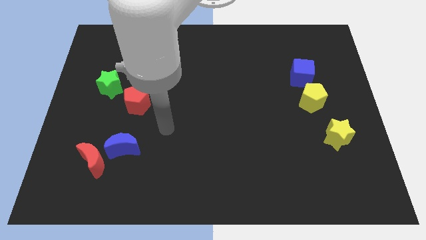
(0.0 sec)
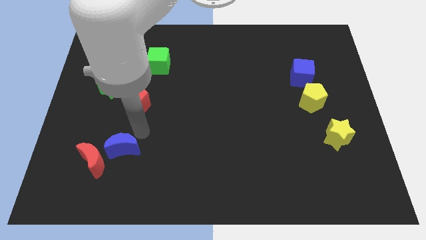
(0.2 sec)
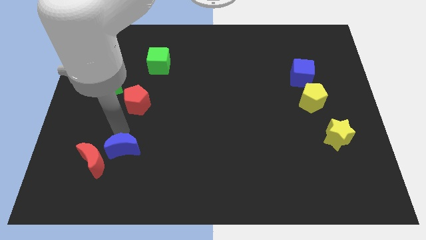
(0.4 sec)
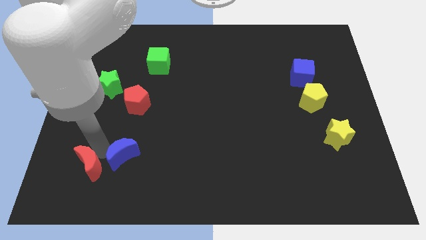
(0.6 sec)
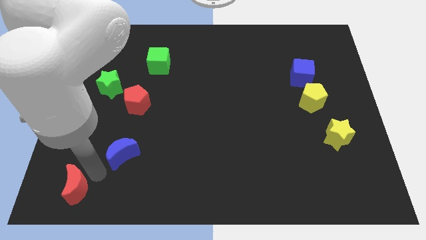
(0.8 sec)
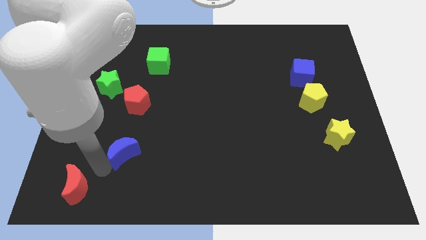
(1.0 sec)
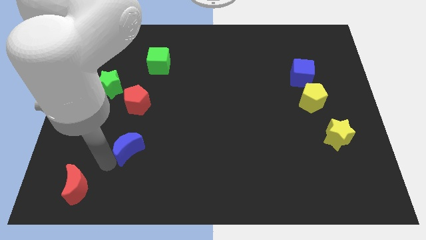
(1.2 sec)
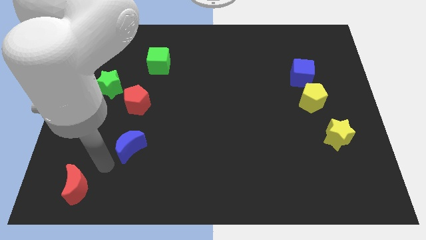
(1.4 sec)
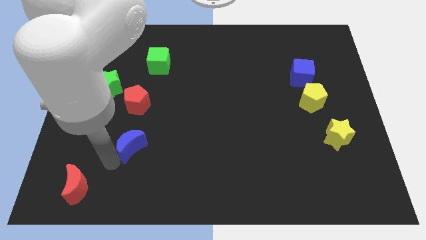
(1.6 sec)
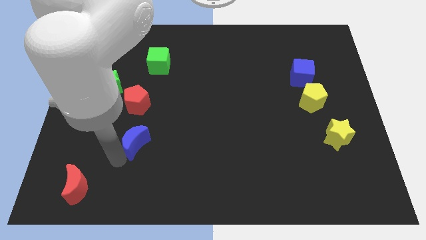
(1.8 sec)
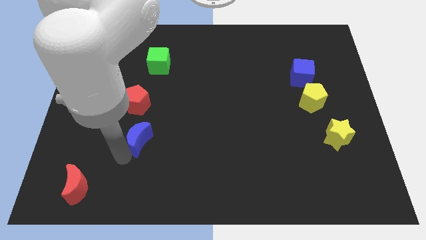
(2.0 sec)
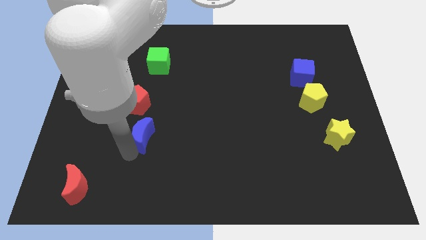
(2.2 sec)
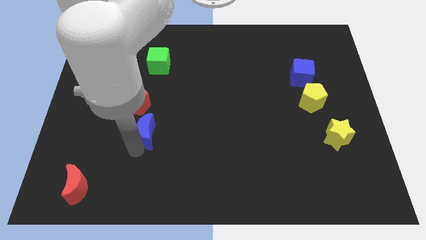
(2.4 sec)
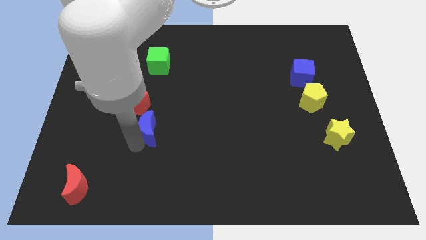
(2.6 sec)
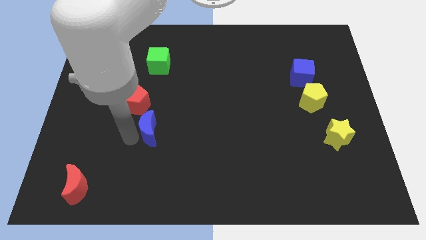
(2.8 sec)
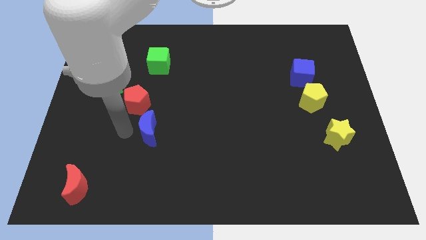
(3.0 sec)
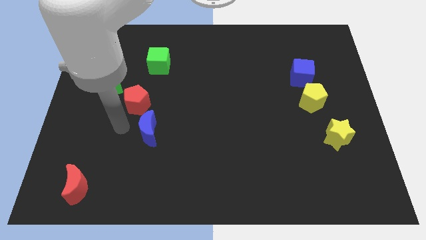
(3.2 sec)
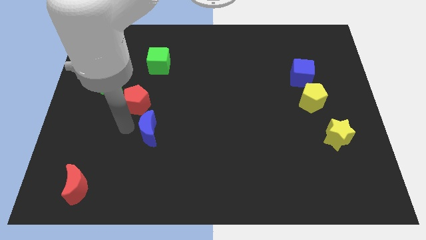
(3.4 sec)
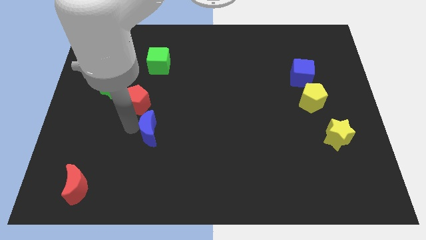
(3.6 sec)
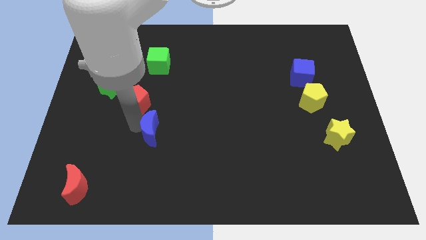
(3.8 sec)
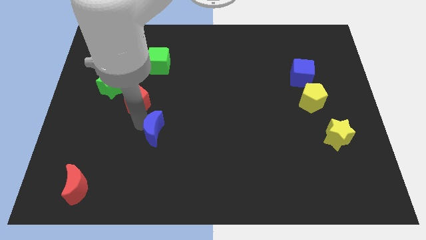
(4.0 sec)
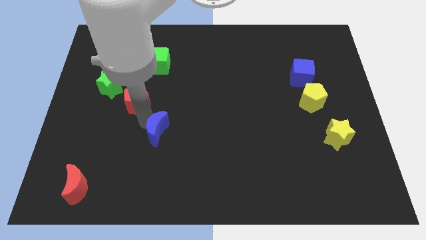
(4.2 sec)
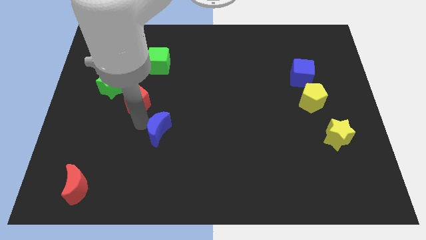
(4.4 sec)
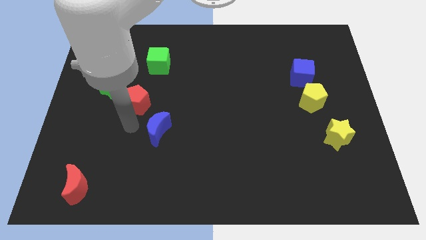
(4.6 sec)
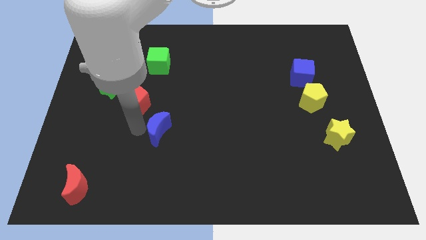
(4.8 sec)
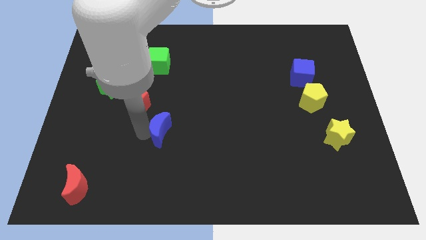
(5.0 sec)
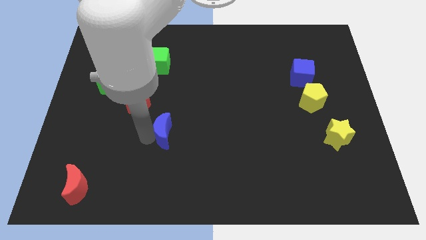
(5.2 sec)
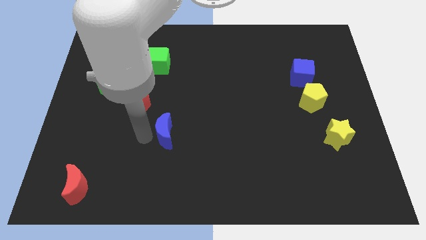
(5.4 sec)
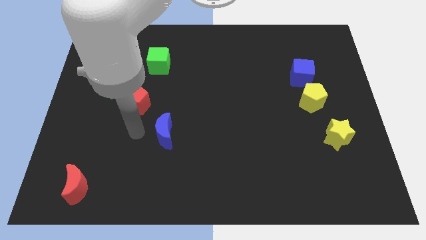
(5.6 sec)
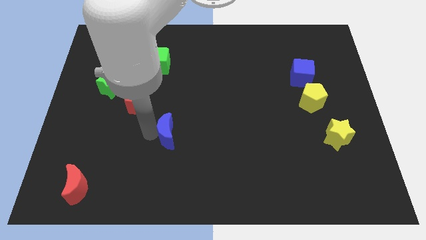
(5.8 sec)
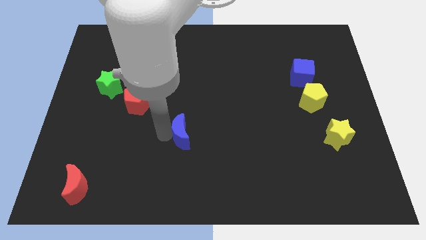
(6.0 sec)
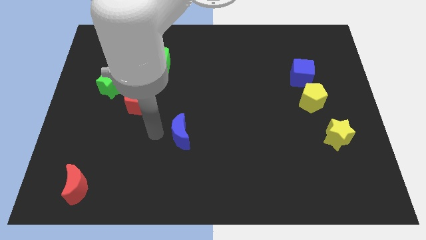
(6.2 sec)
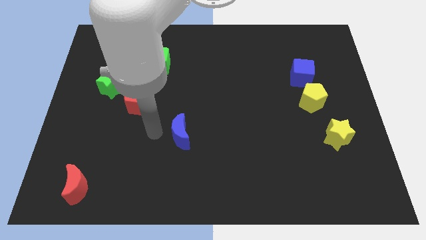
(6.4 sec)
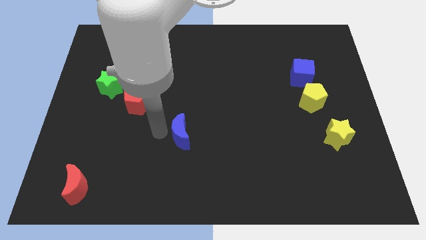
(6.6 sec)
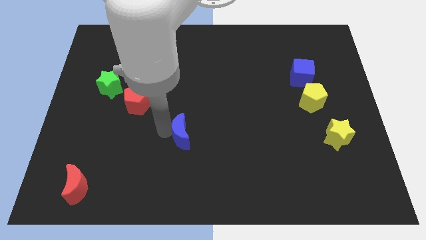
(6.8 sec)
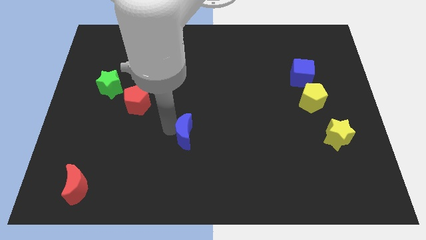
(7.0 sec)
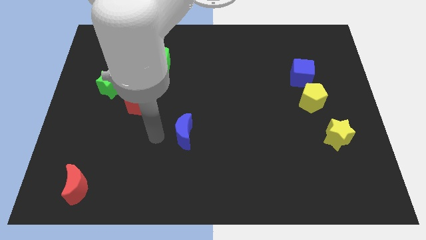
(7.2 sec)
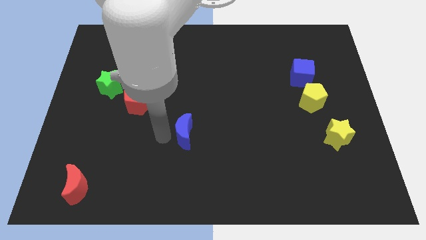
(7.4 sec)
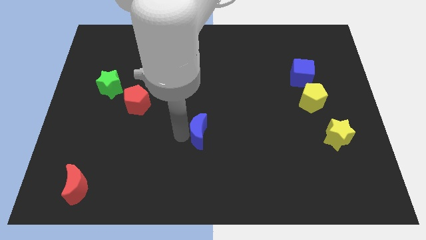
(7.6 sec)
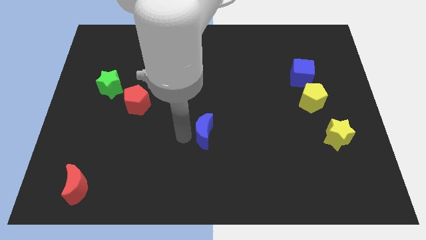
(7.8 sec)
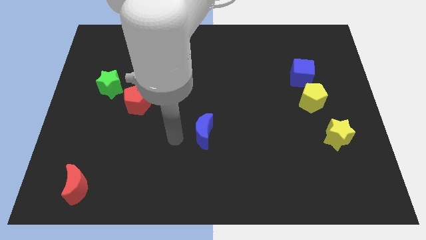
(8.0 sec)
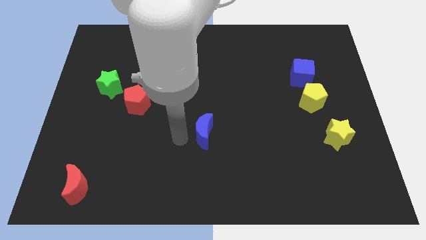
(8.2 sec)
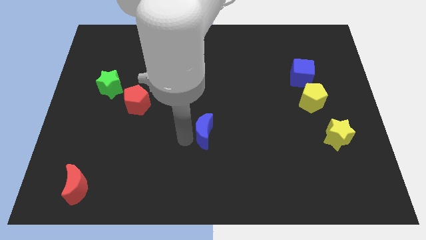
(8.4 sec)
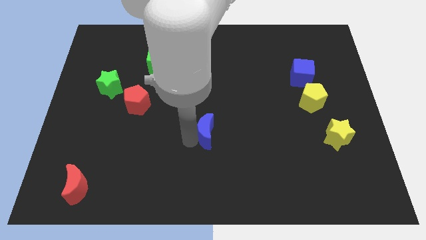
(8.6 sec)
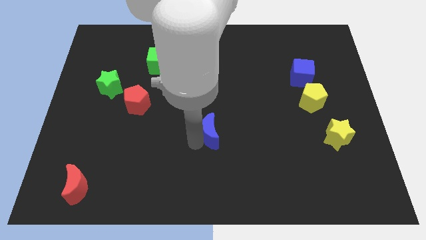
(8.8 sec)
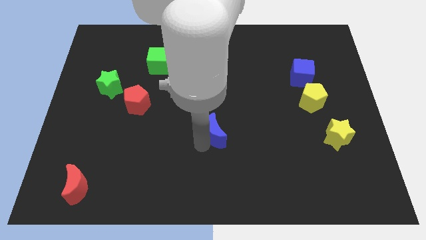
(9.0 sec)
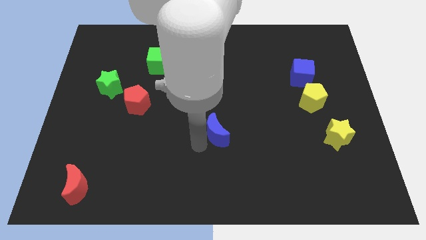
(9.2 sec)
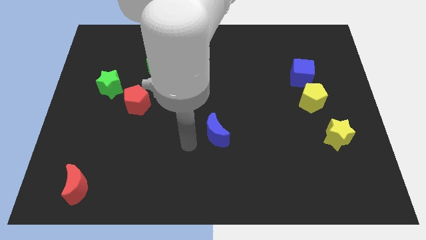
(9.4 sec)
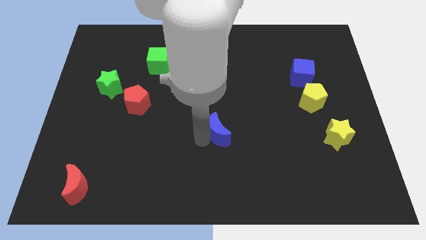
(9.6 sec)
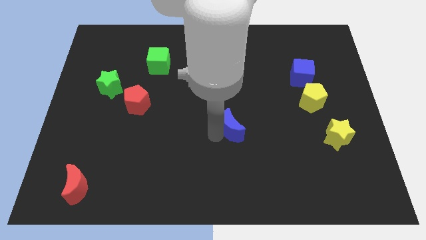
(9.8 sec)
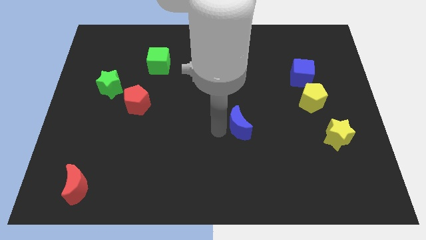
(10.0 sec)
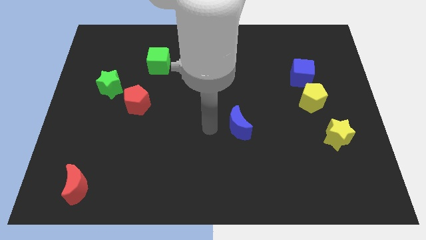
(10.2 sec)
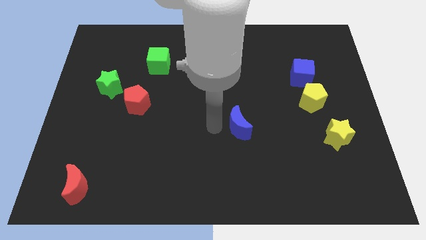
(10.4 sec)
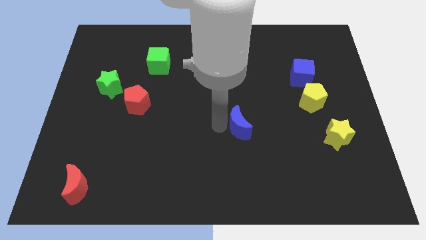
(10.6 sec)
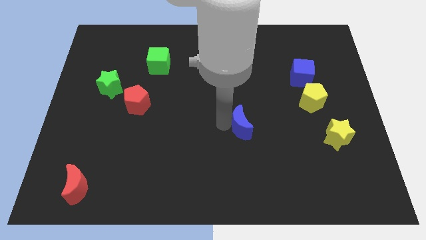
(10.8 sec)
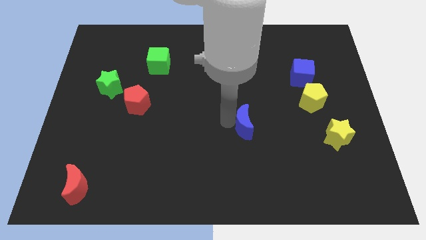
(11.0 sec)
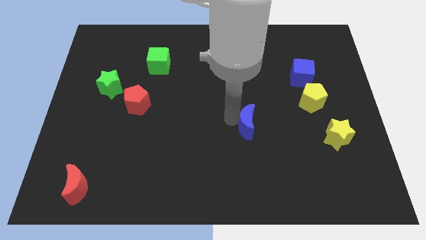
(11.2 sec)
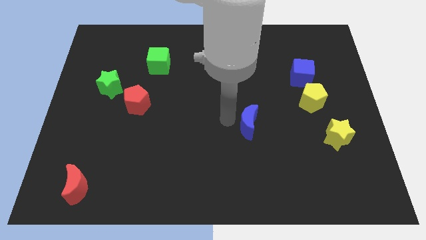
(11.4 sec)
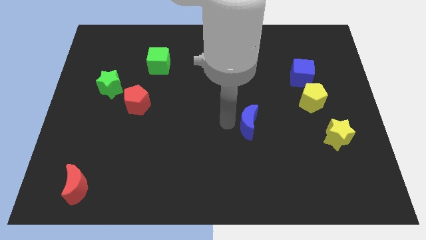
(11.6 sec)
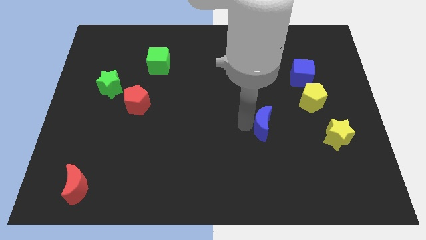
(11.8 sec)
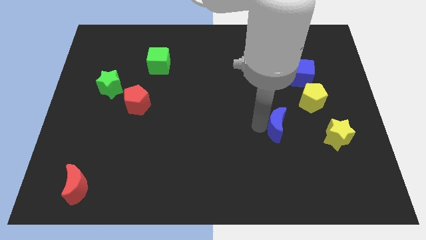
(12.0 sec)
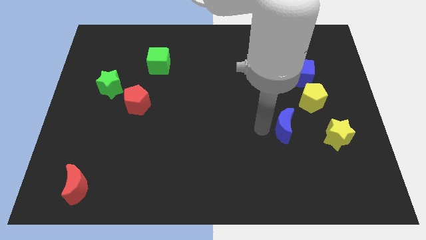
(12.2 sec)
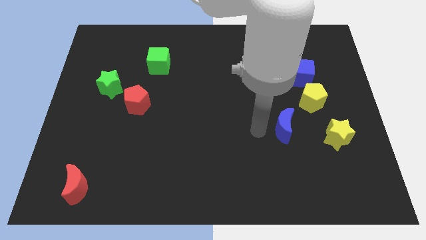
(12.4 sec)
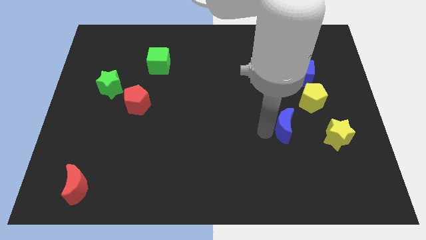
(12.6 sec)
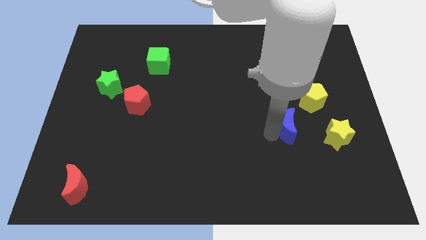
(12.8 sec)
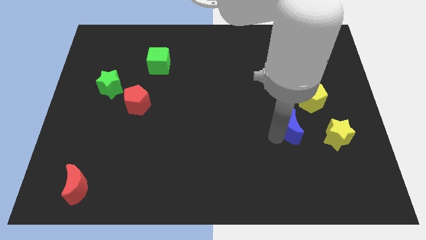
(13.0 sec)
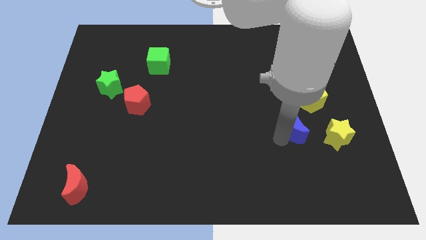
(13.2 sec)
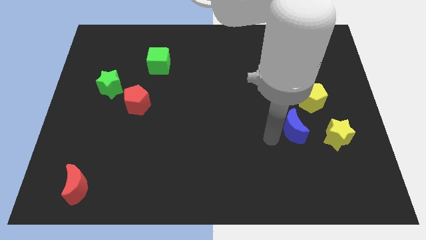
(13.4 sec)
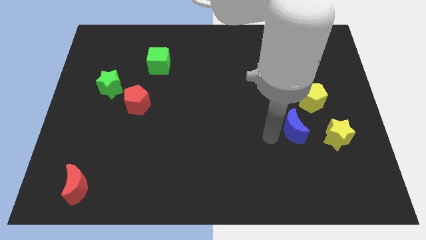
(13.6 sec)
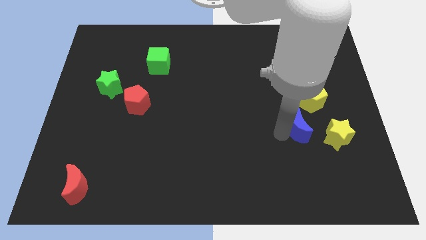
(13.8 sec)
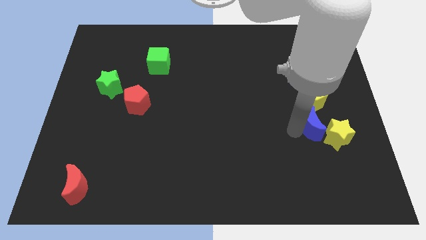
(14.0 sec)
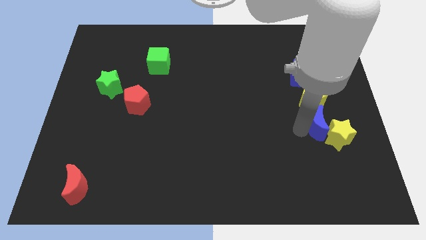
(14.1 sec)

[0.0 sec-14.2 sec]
slide the blue moon to the top side of the yellow star
